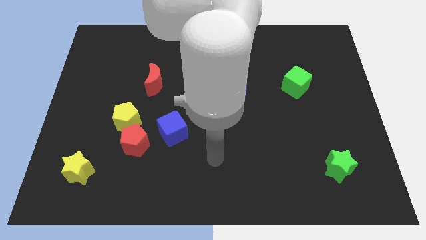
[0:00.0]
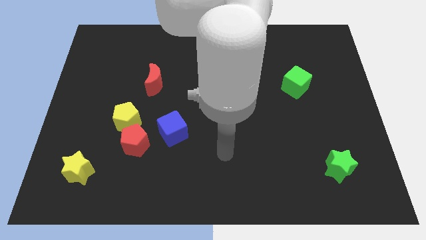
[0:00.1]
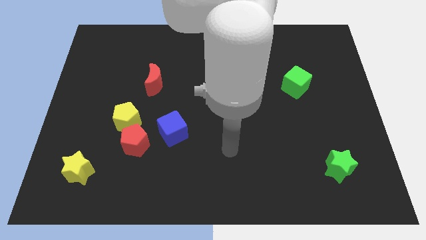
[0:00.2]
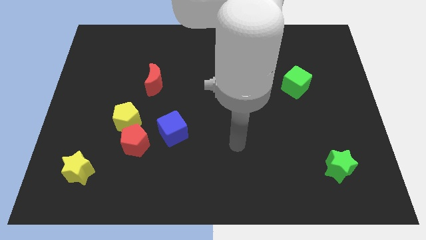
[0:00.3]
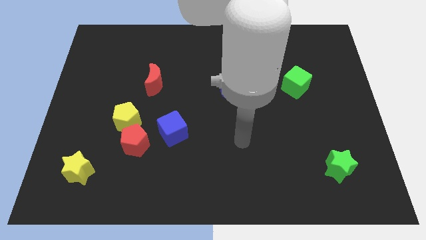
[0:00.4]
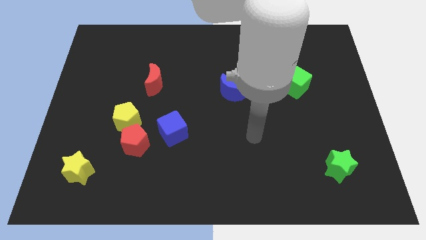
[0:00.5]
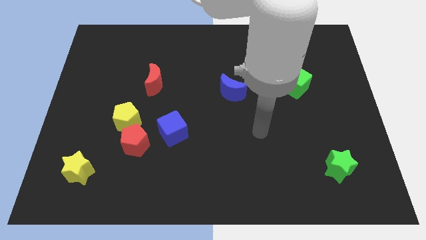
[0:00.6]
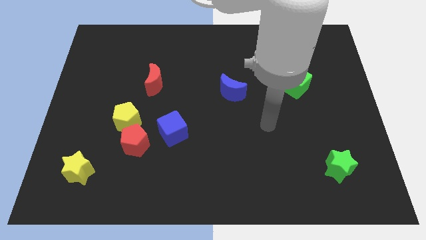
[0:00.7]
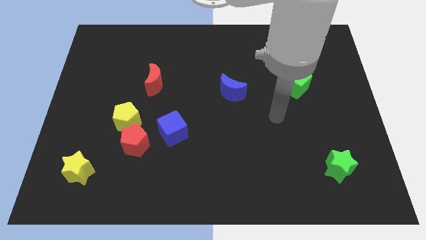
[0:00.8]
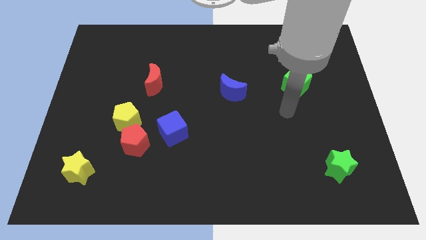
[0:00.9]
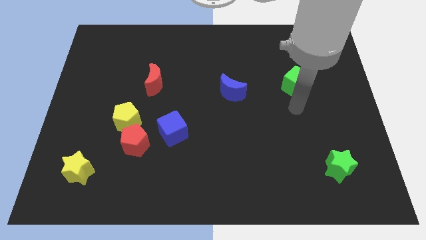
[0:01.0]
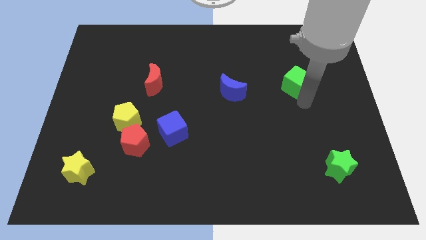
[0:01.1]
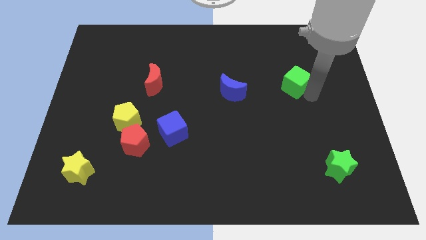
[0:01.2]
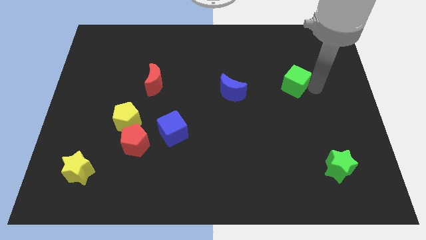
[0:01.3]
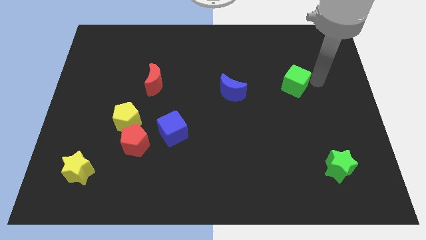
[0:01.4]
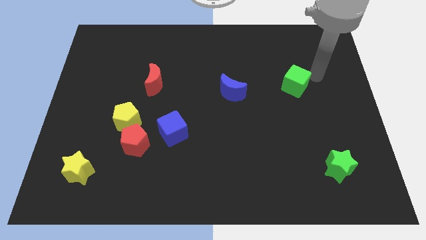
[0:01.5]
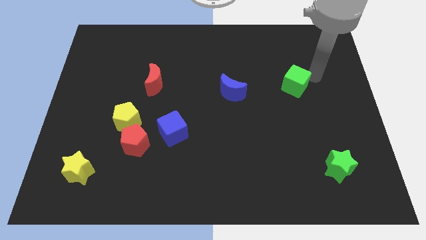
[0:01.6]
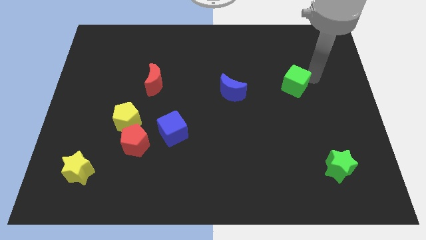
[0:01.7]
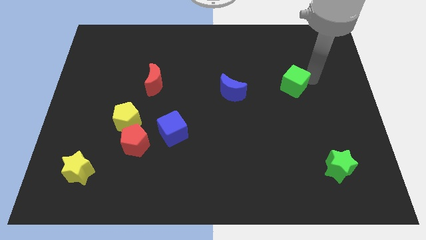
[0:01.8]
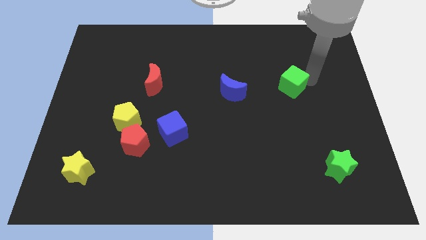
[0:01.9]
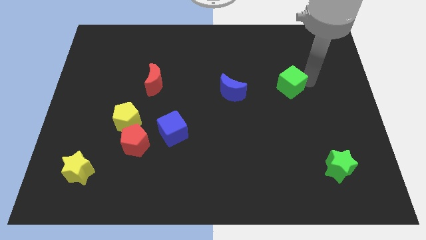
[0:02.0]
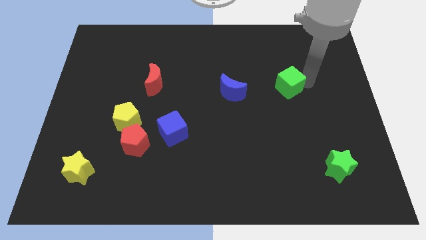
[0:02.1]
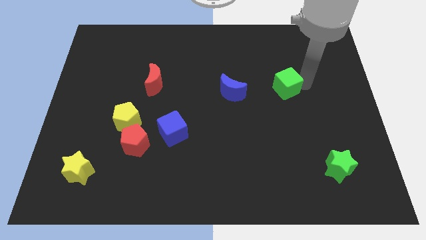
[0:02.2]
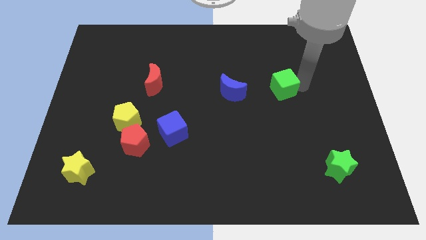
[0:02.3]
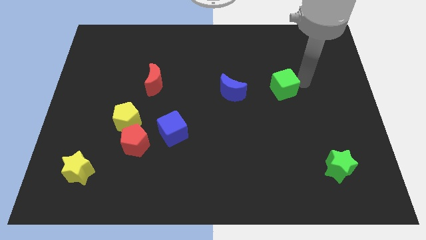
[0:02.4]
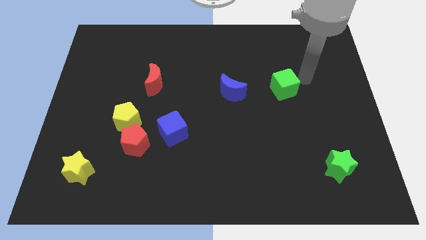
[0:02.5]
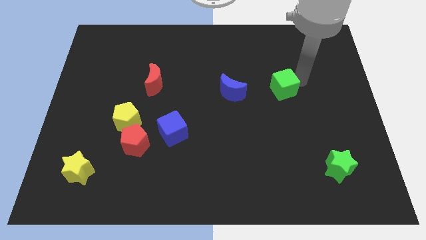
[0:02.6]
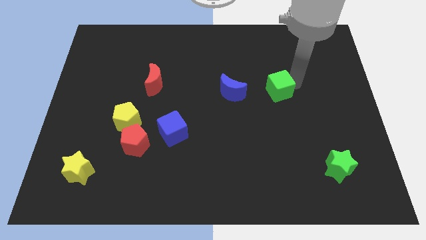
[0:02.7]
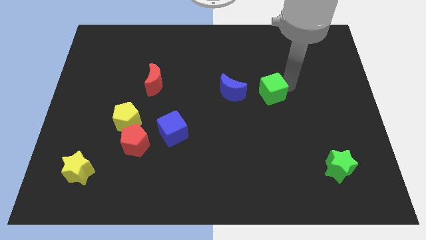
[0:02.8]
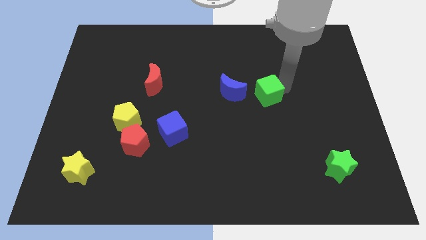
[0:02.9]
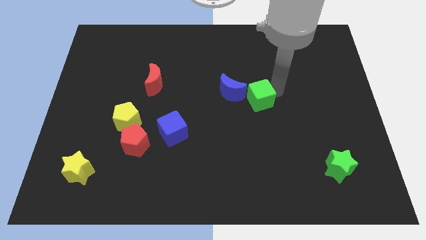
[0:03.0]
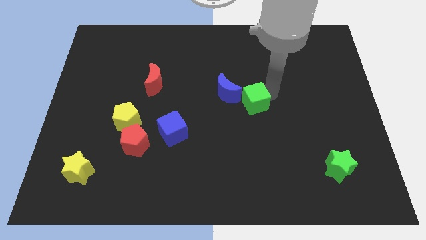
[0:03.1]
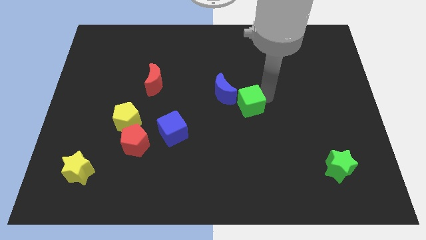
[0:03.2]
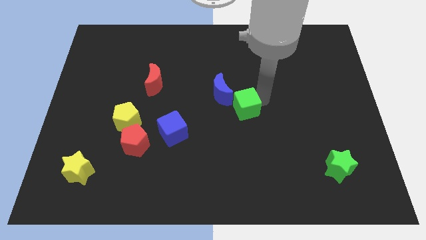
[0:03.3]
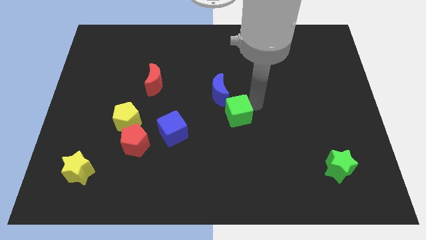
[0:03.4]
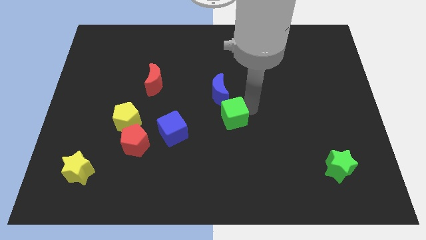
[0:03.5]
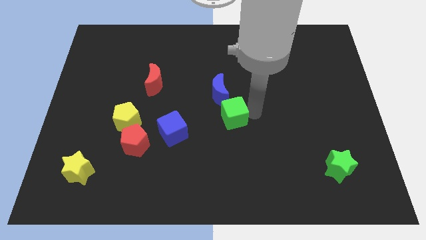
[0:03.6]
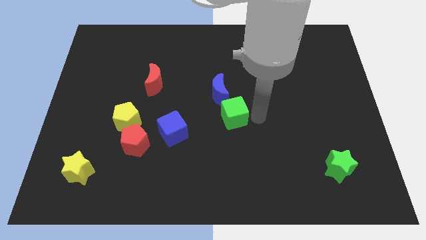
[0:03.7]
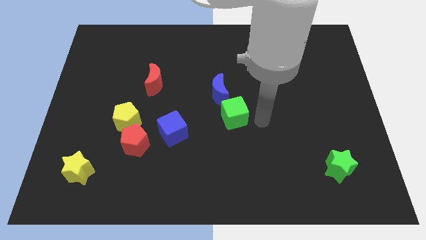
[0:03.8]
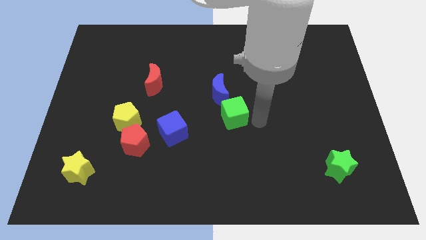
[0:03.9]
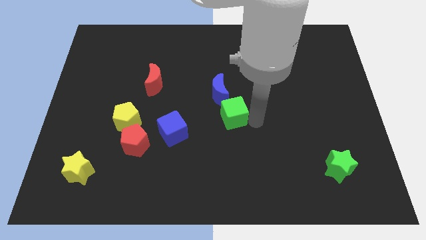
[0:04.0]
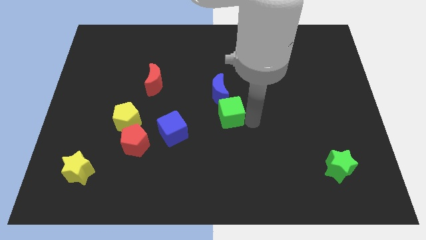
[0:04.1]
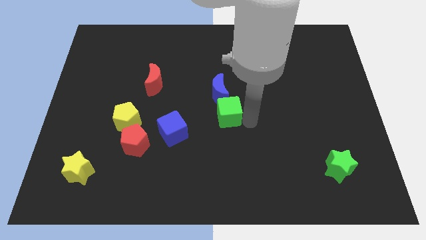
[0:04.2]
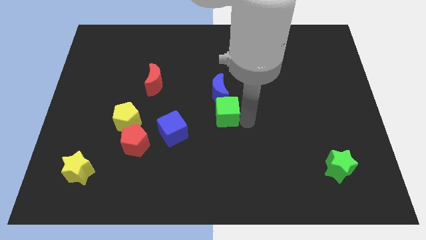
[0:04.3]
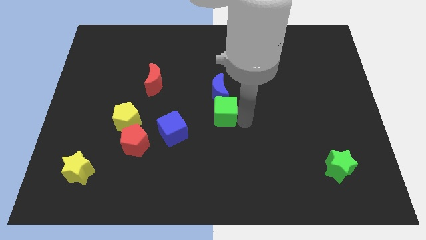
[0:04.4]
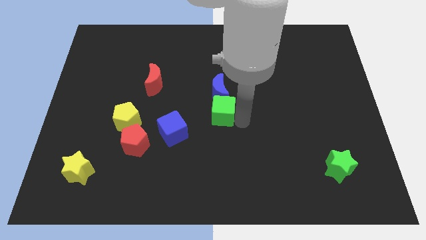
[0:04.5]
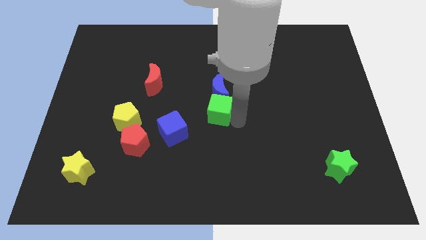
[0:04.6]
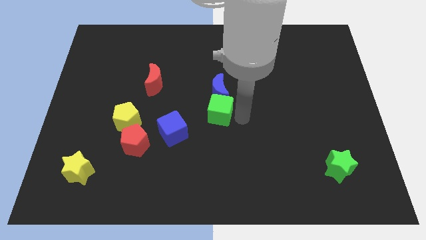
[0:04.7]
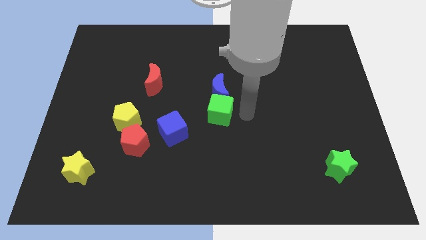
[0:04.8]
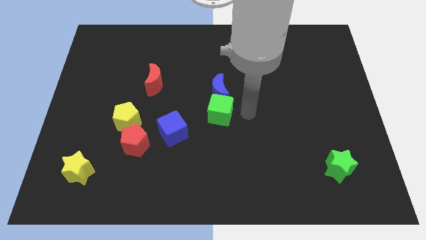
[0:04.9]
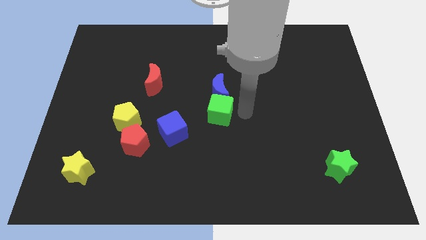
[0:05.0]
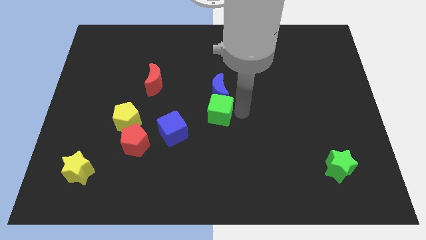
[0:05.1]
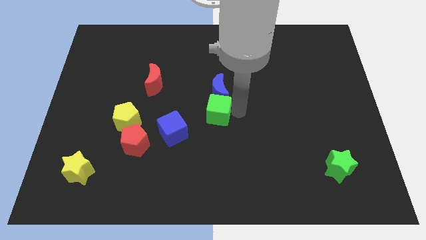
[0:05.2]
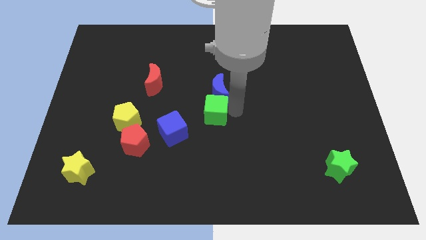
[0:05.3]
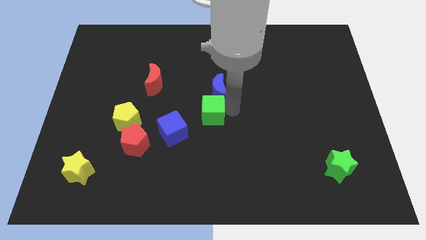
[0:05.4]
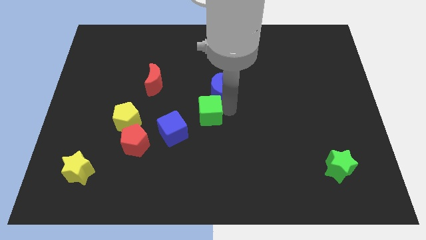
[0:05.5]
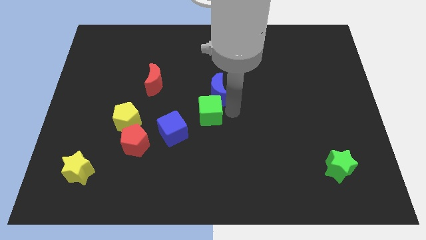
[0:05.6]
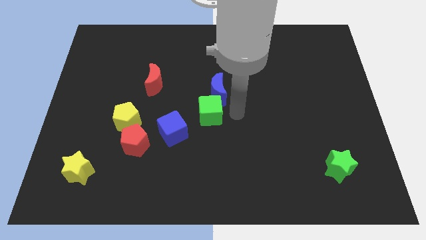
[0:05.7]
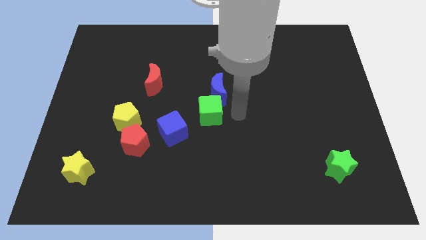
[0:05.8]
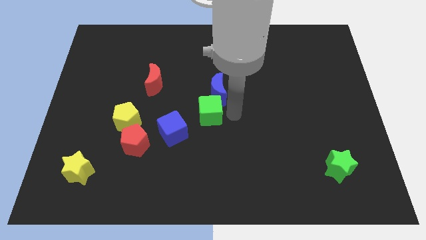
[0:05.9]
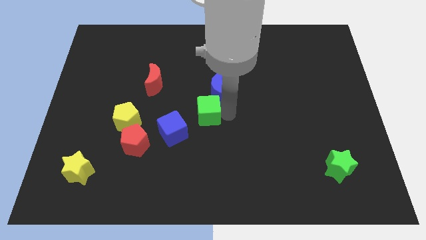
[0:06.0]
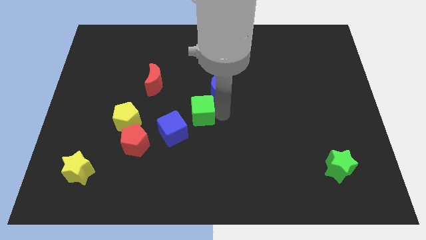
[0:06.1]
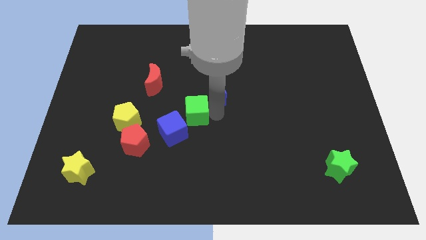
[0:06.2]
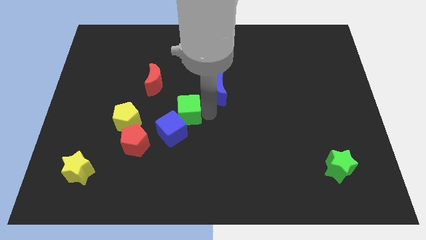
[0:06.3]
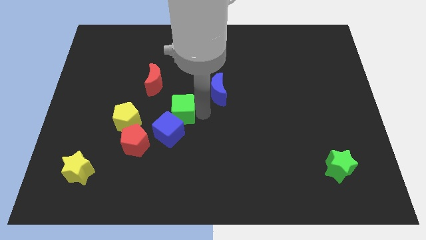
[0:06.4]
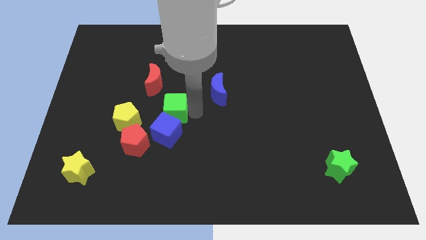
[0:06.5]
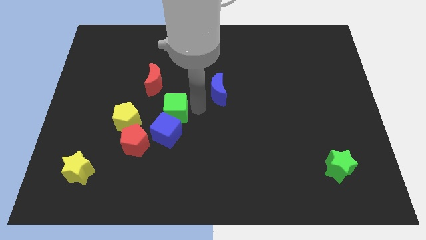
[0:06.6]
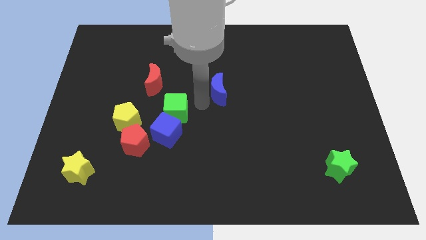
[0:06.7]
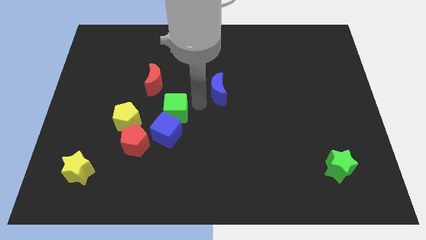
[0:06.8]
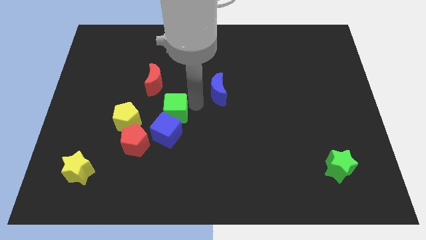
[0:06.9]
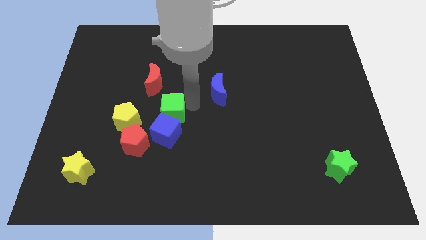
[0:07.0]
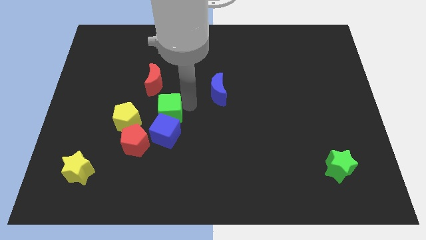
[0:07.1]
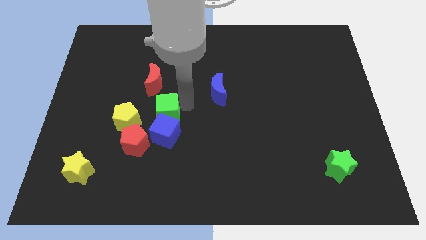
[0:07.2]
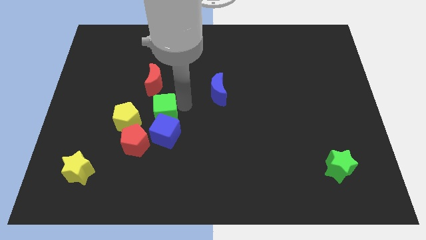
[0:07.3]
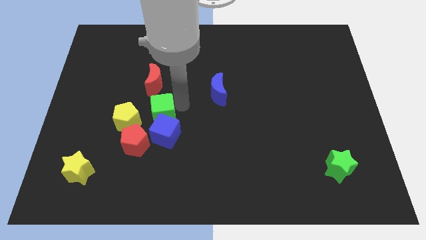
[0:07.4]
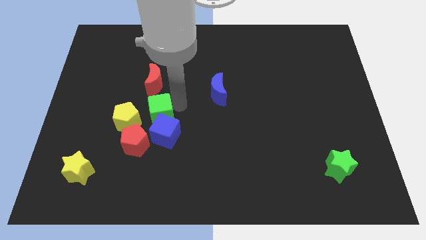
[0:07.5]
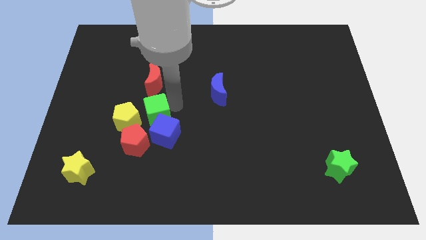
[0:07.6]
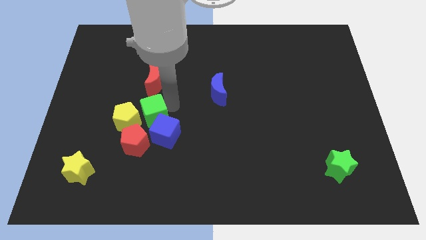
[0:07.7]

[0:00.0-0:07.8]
slide the green cube to the yellow pentagon
